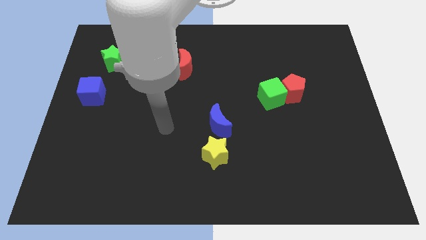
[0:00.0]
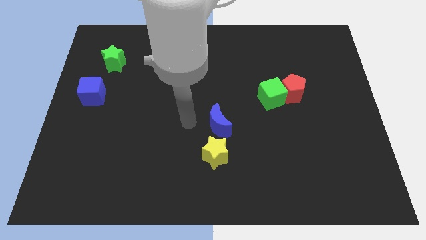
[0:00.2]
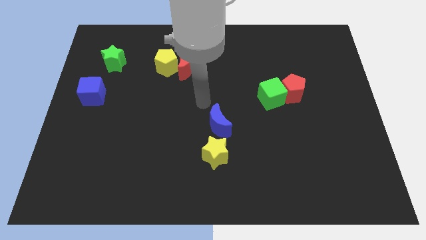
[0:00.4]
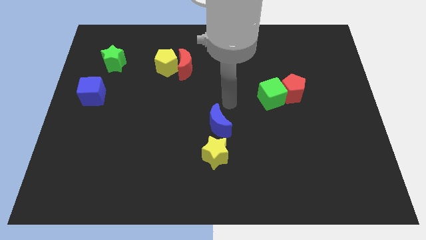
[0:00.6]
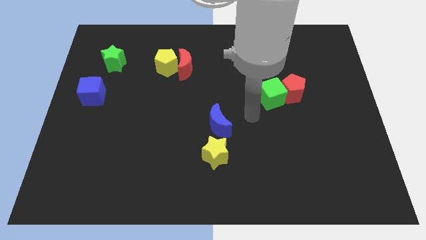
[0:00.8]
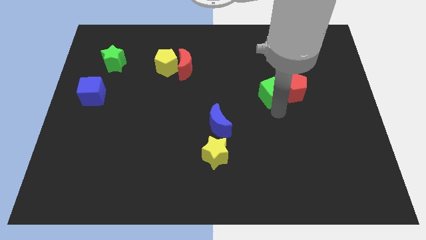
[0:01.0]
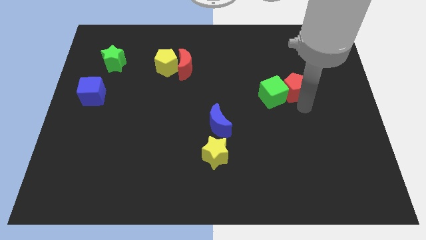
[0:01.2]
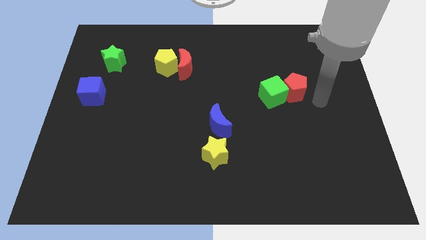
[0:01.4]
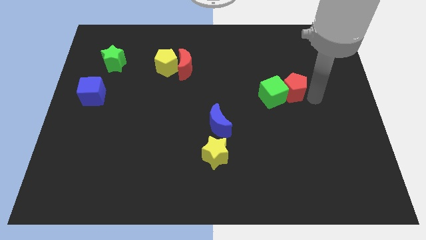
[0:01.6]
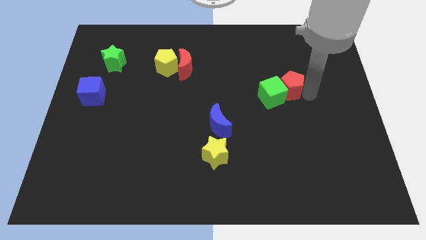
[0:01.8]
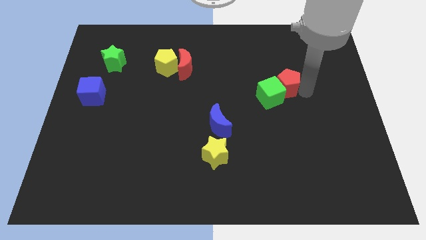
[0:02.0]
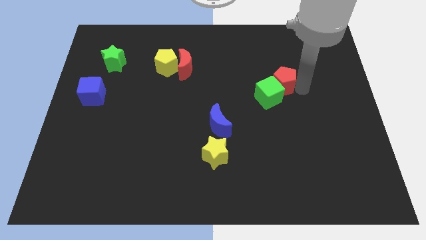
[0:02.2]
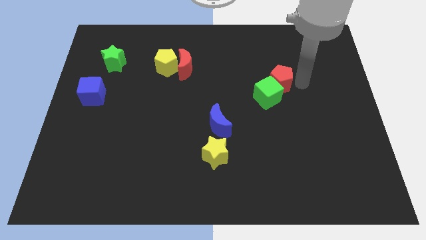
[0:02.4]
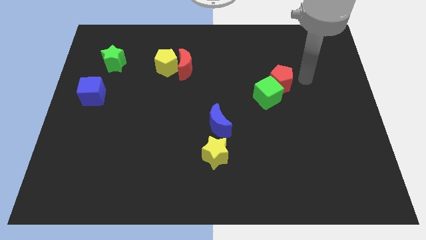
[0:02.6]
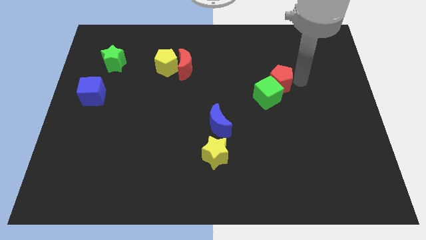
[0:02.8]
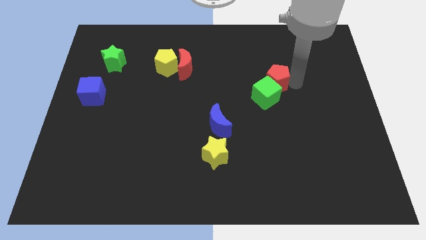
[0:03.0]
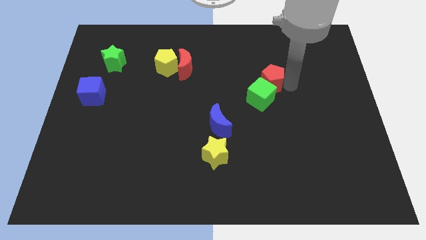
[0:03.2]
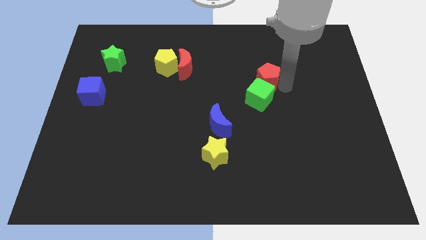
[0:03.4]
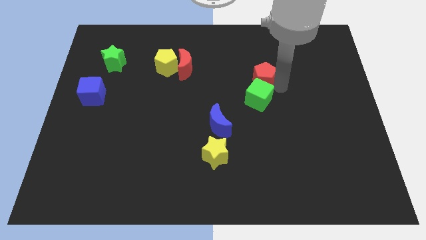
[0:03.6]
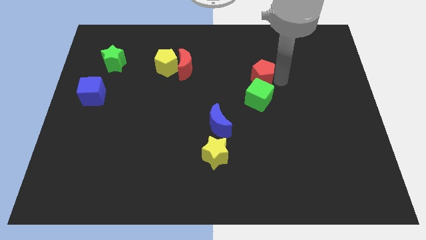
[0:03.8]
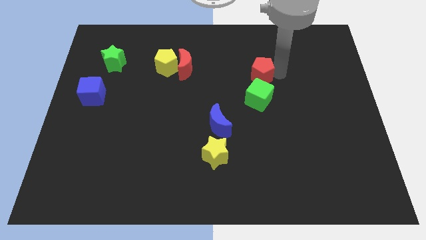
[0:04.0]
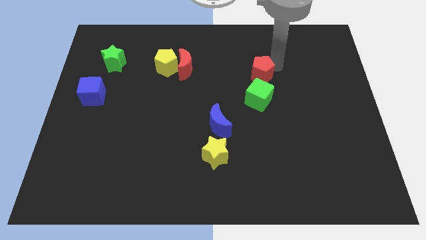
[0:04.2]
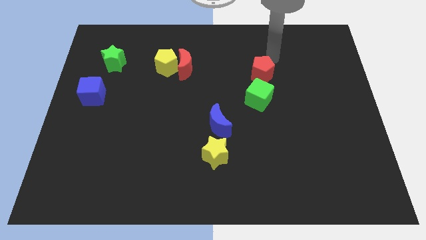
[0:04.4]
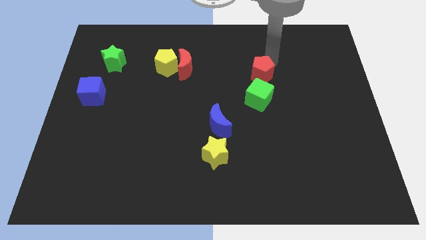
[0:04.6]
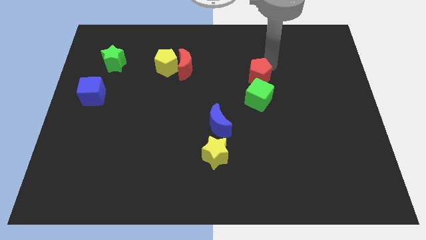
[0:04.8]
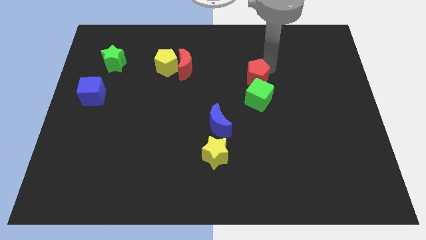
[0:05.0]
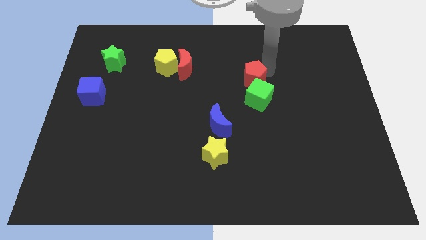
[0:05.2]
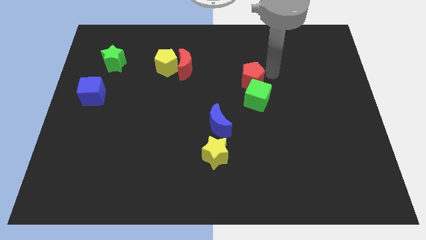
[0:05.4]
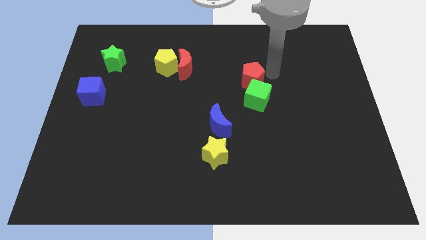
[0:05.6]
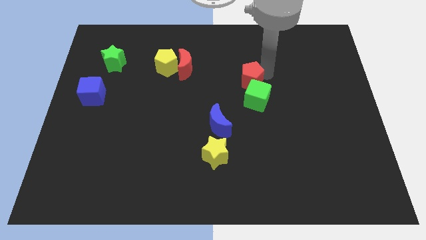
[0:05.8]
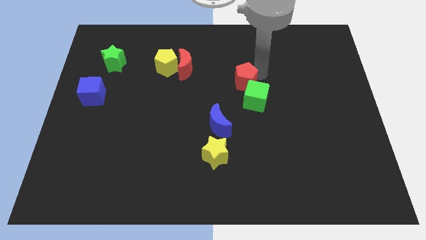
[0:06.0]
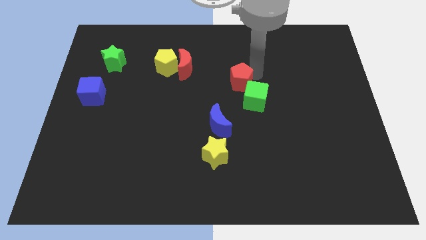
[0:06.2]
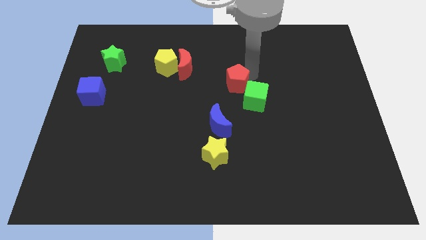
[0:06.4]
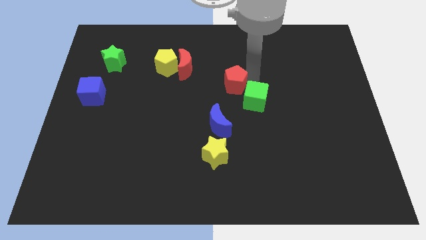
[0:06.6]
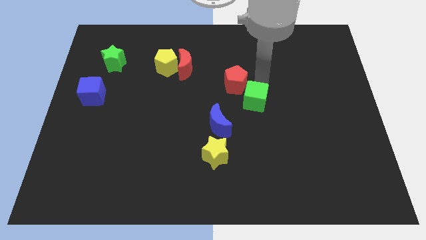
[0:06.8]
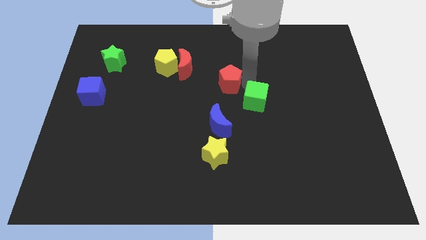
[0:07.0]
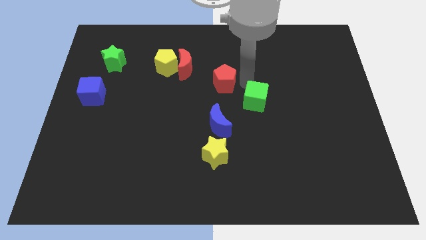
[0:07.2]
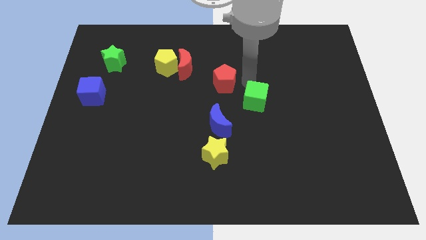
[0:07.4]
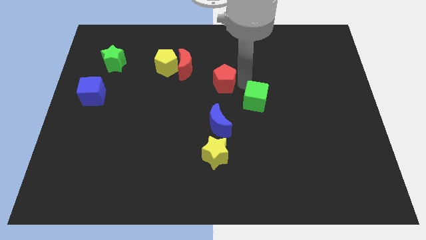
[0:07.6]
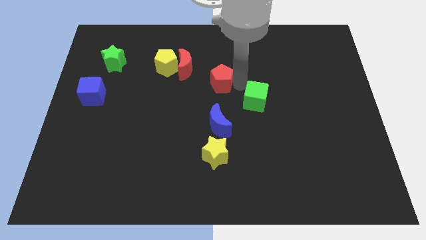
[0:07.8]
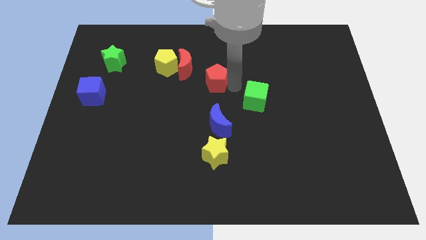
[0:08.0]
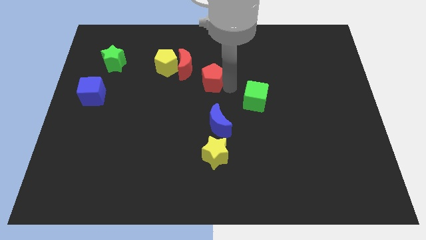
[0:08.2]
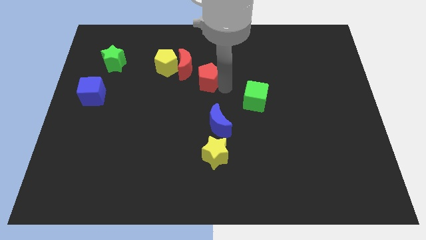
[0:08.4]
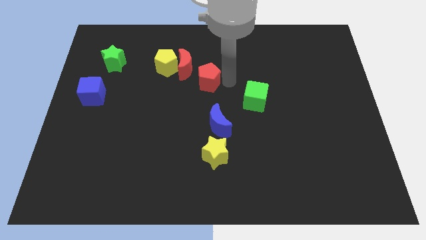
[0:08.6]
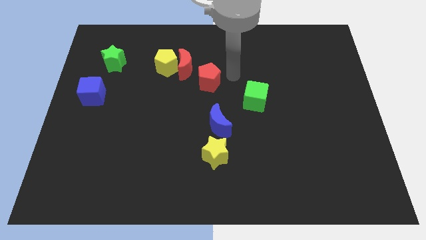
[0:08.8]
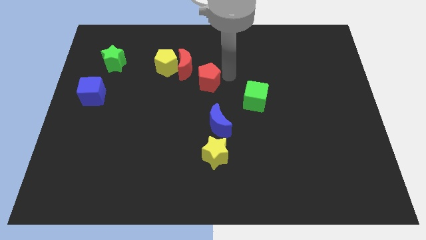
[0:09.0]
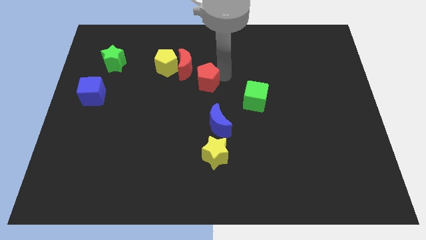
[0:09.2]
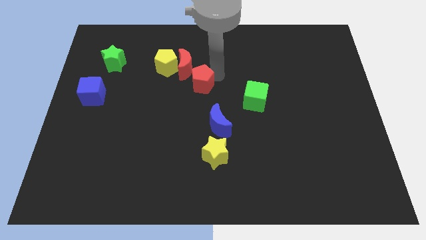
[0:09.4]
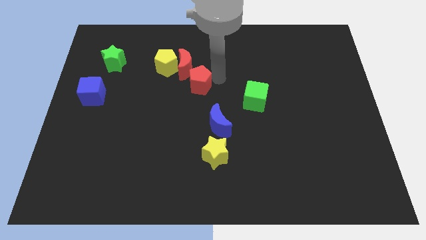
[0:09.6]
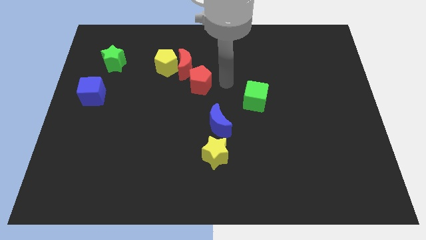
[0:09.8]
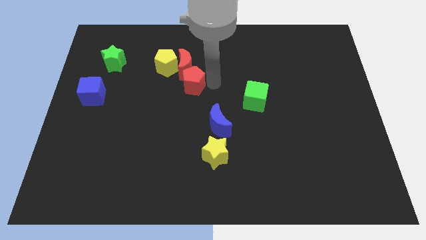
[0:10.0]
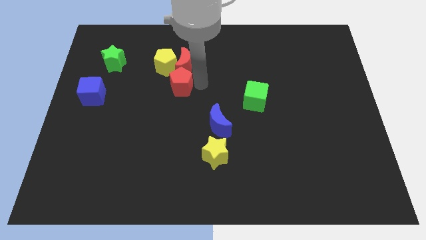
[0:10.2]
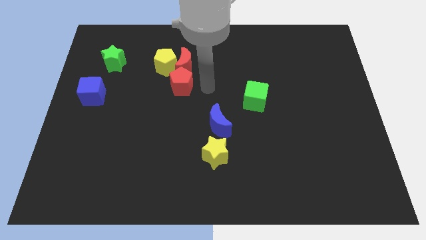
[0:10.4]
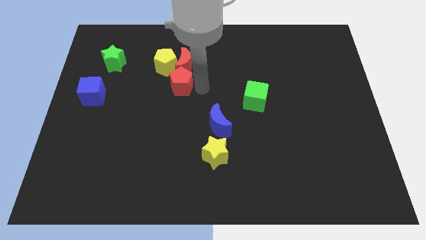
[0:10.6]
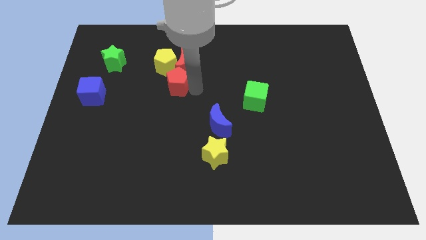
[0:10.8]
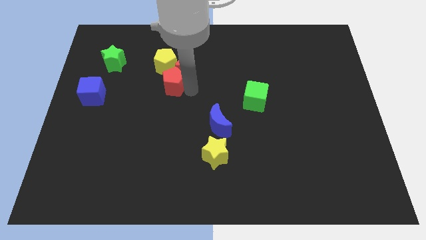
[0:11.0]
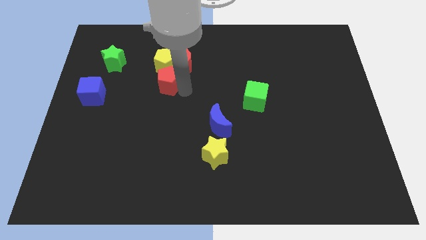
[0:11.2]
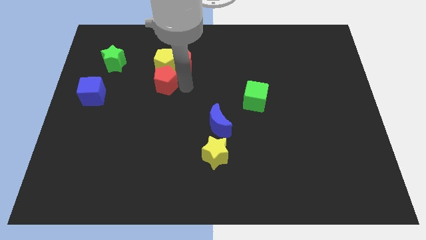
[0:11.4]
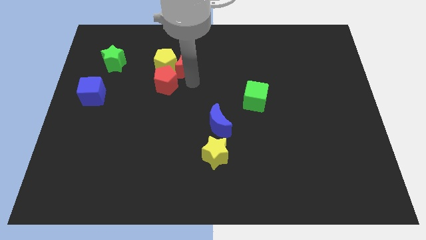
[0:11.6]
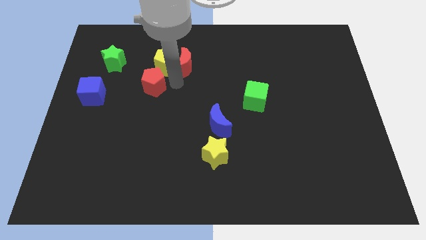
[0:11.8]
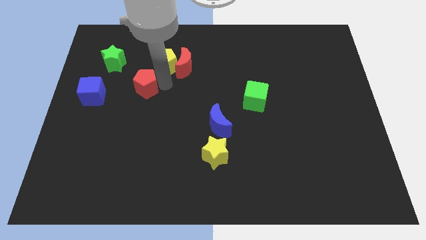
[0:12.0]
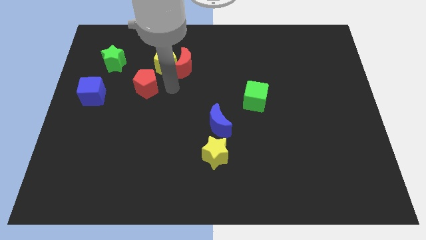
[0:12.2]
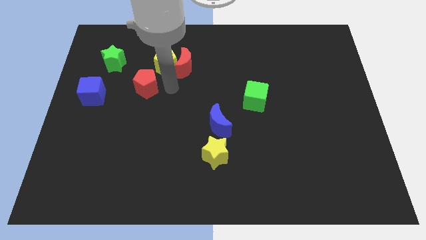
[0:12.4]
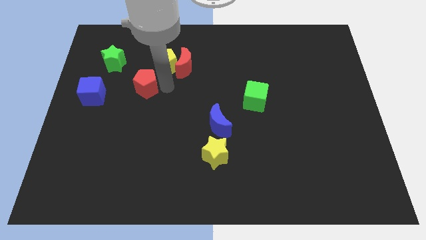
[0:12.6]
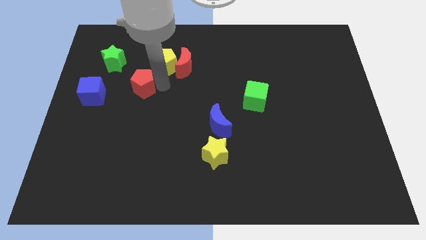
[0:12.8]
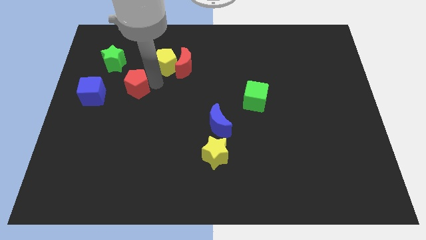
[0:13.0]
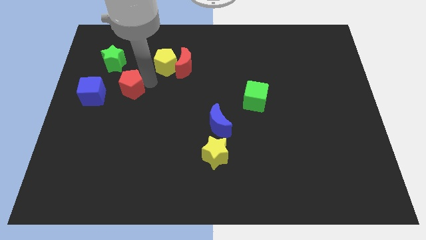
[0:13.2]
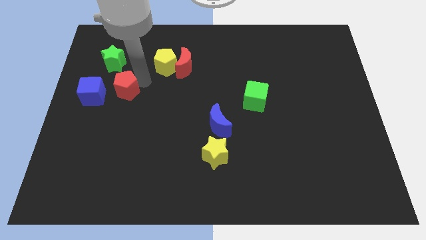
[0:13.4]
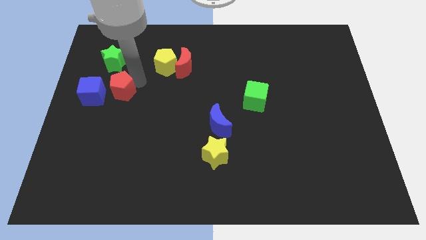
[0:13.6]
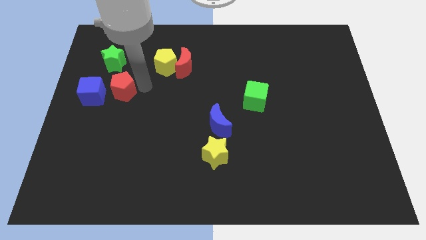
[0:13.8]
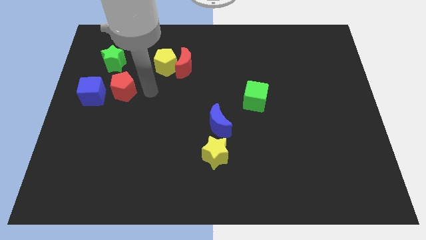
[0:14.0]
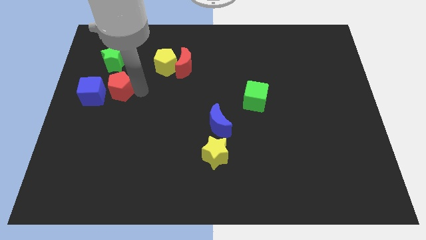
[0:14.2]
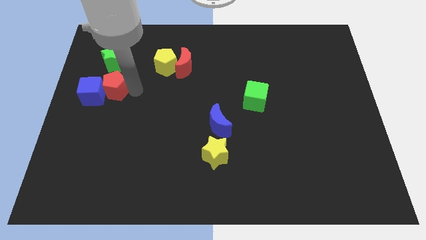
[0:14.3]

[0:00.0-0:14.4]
put the red pentagon next to the blue cube

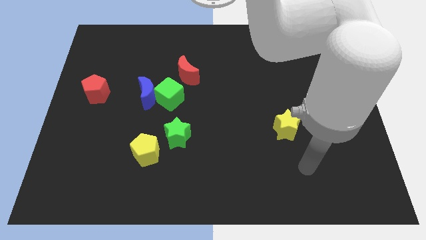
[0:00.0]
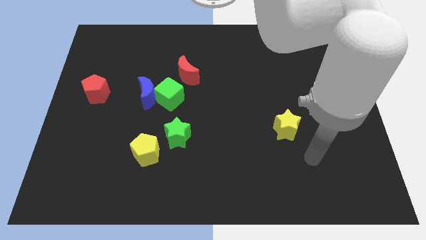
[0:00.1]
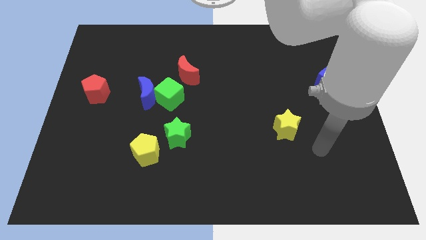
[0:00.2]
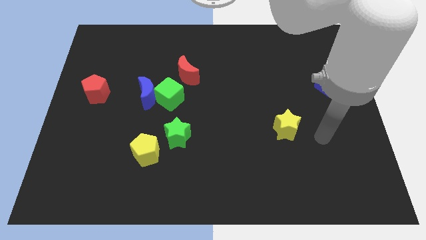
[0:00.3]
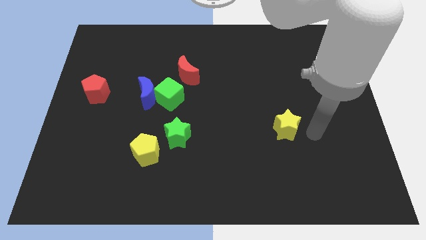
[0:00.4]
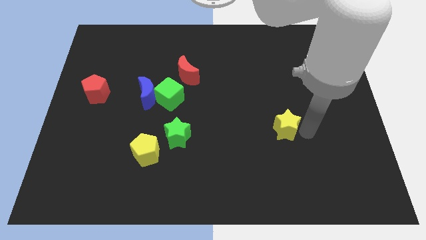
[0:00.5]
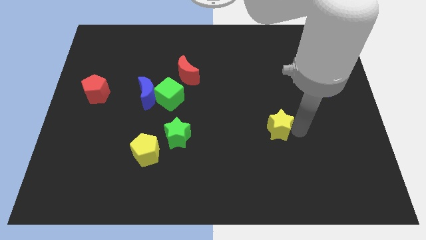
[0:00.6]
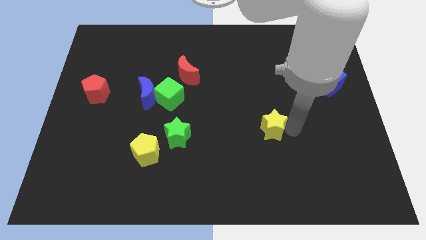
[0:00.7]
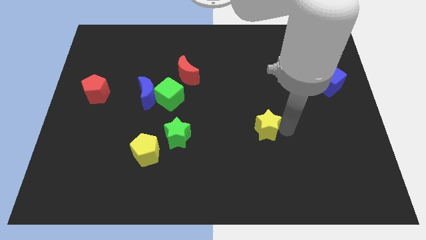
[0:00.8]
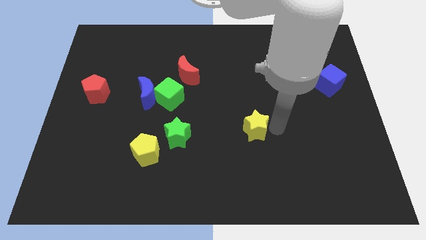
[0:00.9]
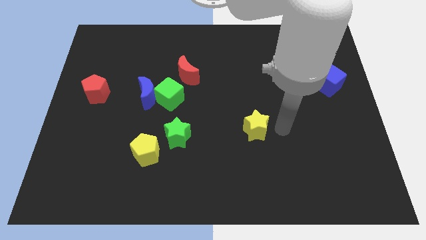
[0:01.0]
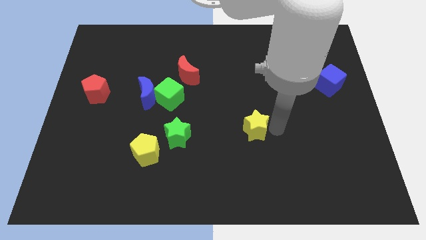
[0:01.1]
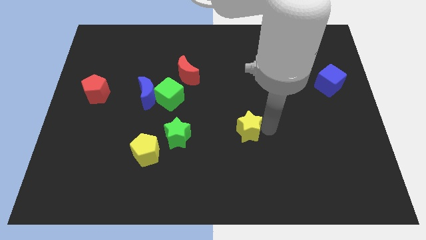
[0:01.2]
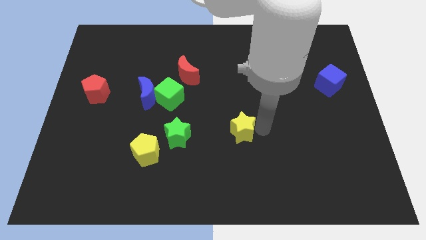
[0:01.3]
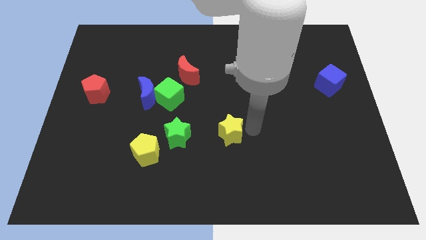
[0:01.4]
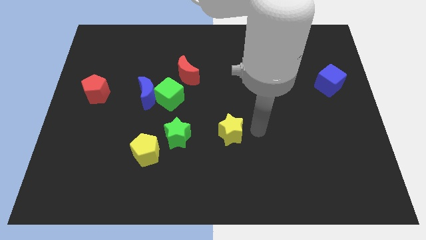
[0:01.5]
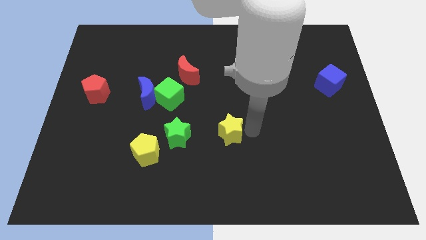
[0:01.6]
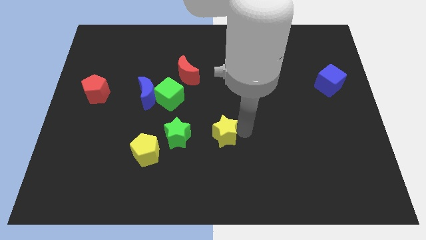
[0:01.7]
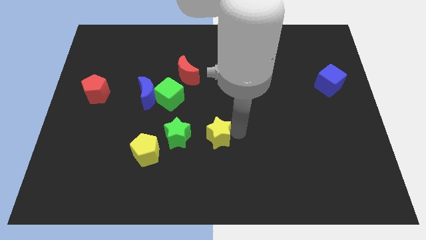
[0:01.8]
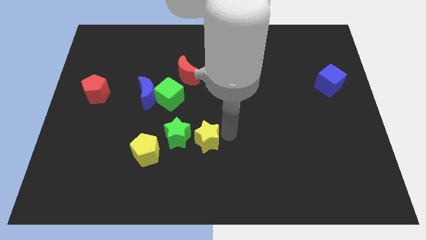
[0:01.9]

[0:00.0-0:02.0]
slide the yellow star close to the green star
